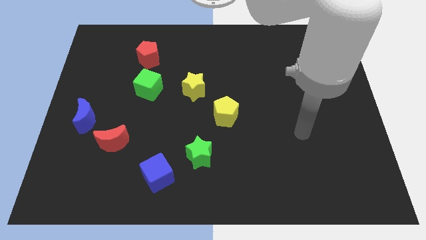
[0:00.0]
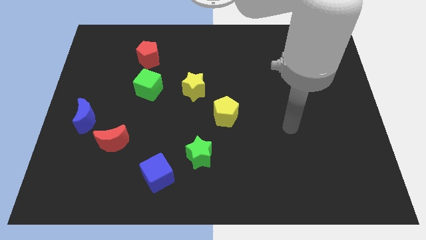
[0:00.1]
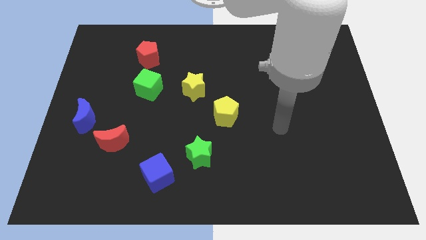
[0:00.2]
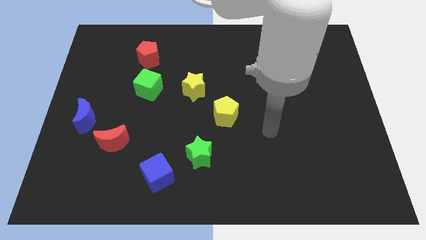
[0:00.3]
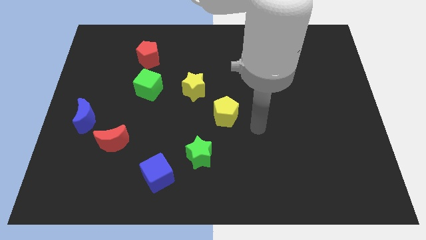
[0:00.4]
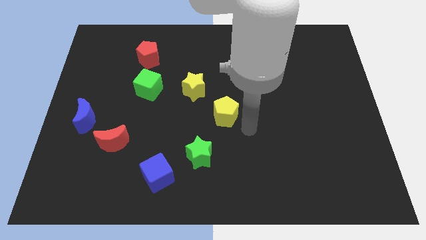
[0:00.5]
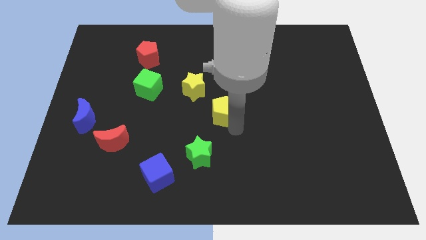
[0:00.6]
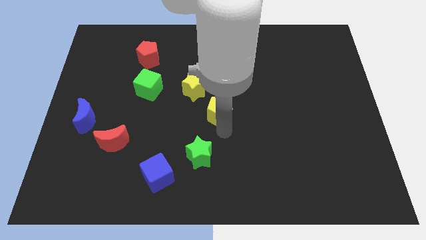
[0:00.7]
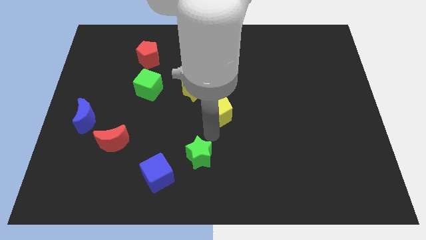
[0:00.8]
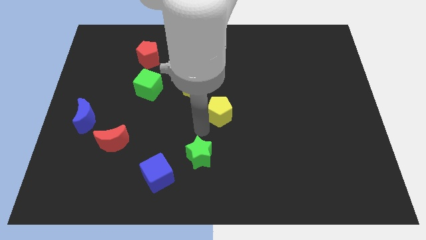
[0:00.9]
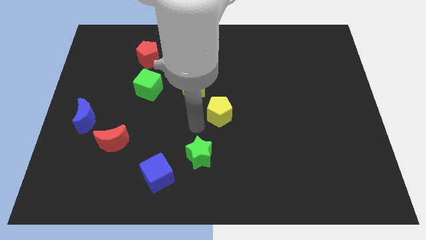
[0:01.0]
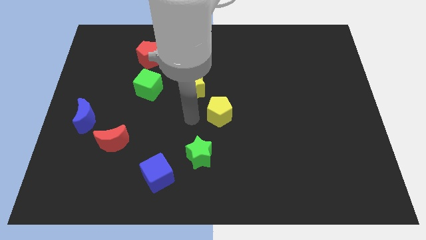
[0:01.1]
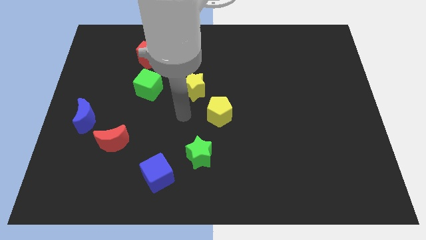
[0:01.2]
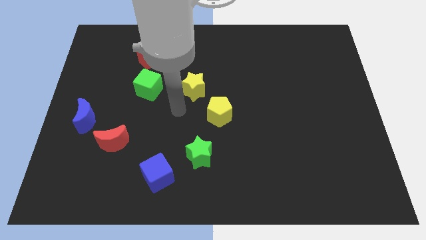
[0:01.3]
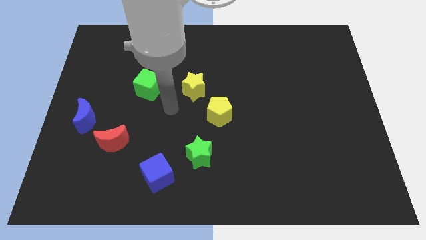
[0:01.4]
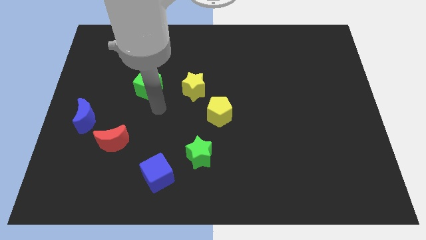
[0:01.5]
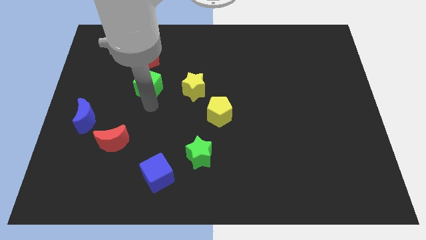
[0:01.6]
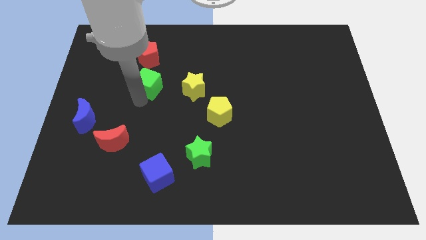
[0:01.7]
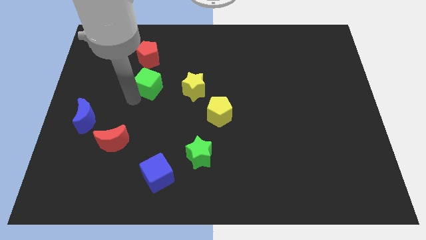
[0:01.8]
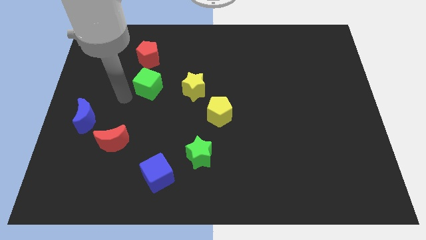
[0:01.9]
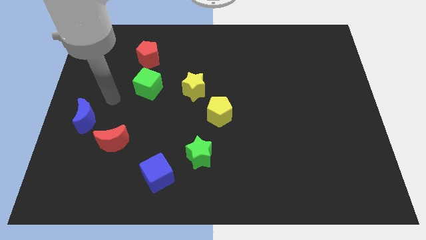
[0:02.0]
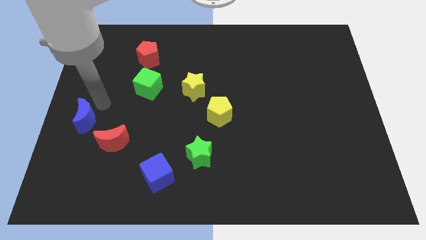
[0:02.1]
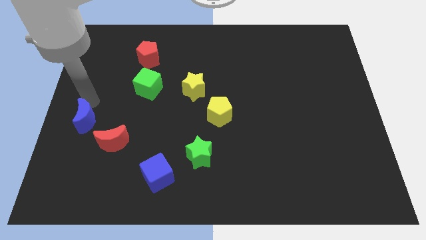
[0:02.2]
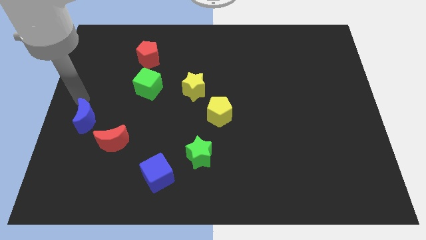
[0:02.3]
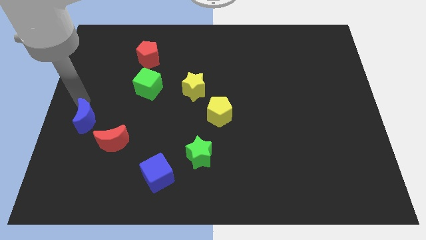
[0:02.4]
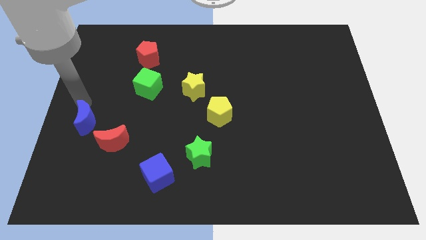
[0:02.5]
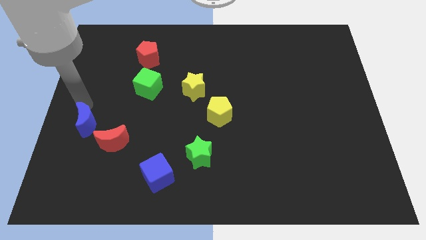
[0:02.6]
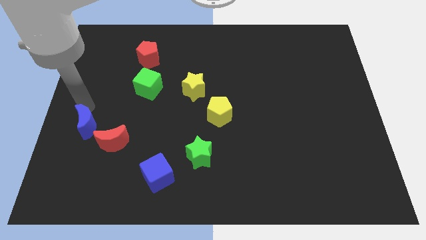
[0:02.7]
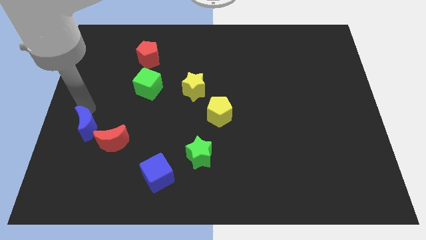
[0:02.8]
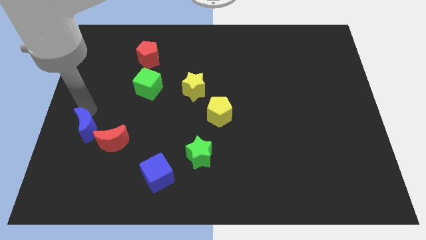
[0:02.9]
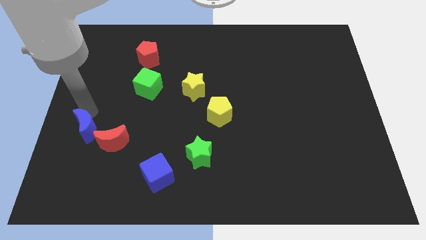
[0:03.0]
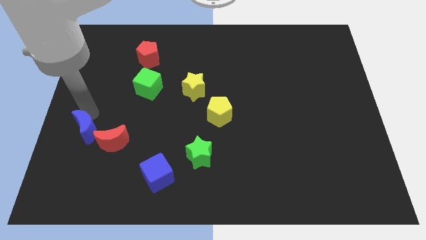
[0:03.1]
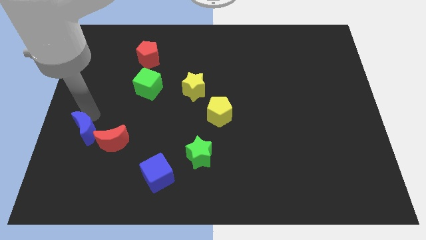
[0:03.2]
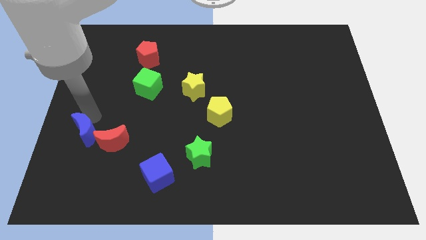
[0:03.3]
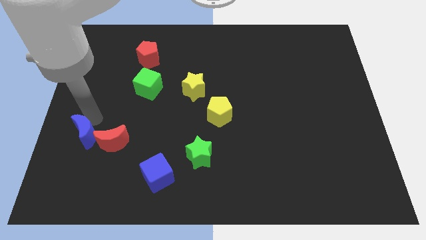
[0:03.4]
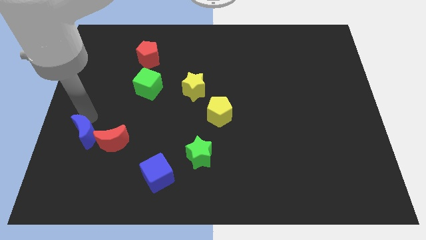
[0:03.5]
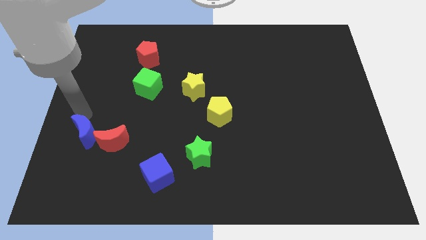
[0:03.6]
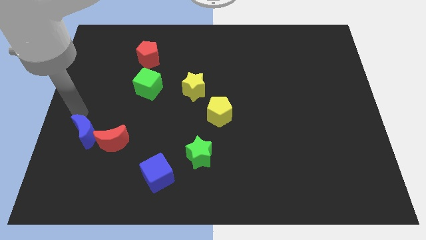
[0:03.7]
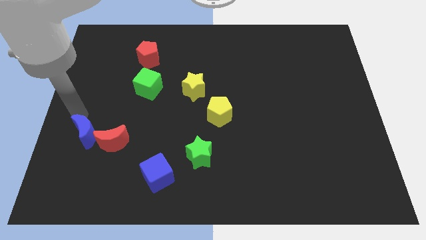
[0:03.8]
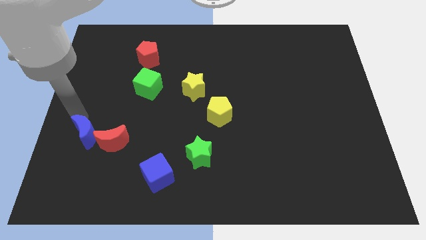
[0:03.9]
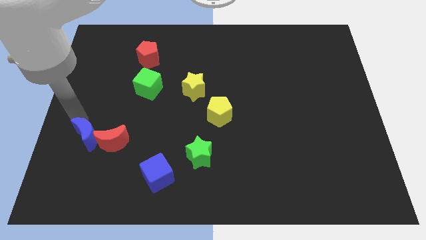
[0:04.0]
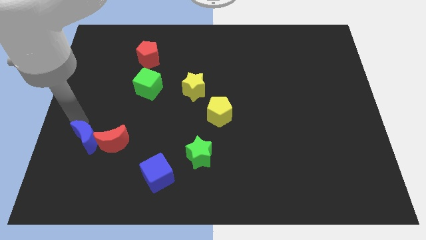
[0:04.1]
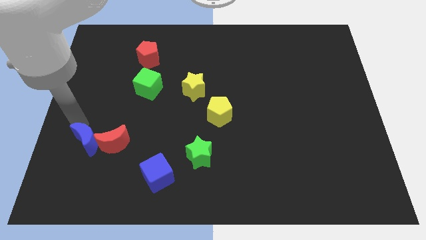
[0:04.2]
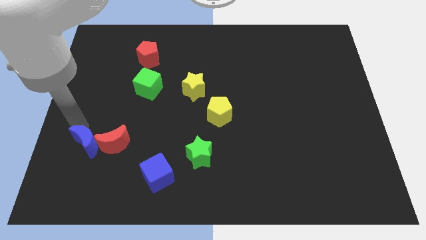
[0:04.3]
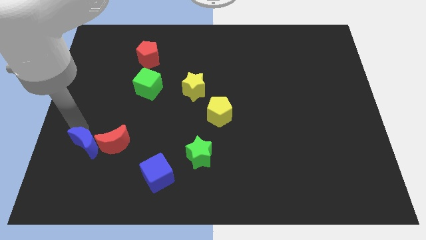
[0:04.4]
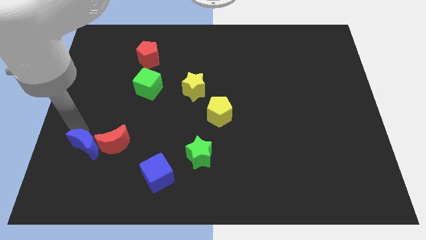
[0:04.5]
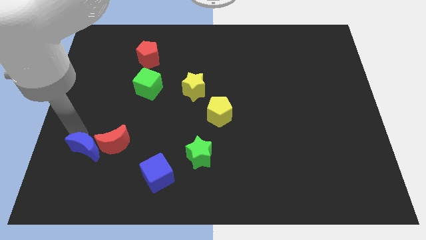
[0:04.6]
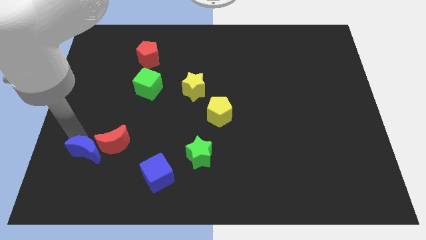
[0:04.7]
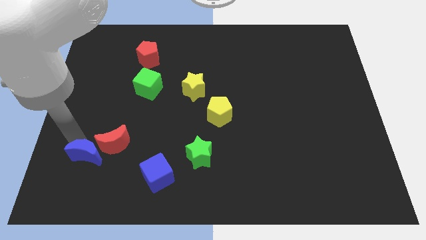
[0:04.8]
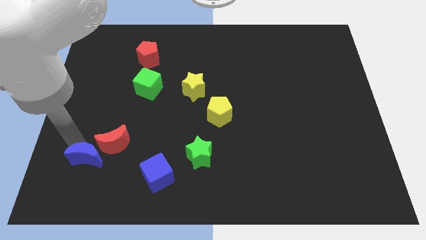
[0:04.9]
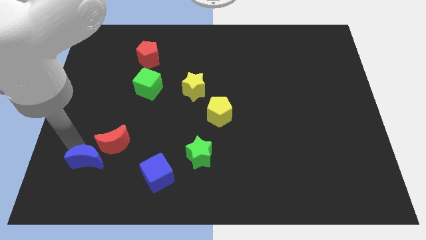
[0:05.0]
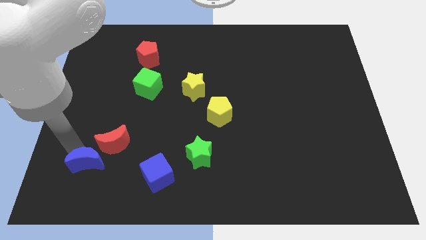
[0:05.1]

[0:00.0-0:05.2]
move the blue moon to the left side of the blue cube

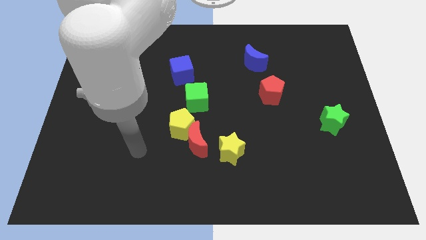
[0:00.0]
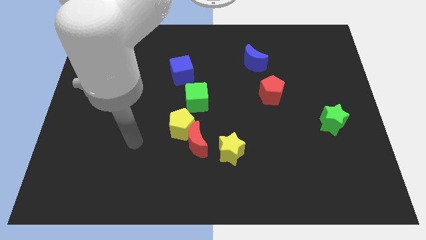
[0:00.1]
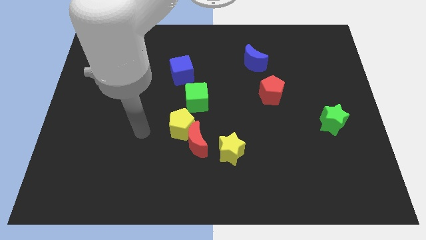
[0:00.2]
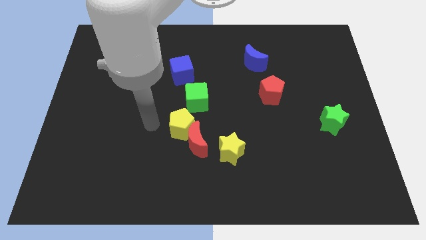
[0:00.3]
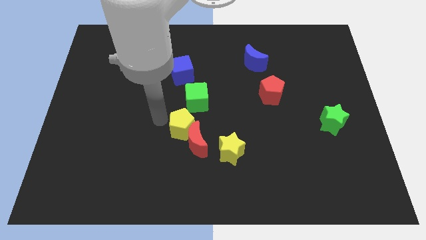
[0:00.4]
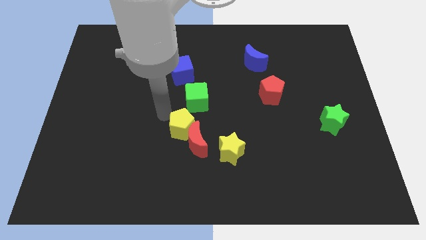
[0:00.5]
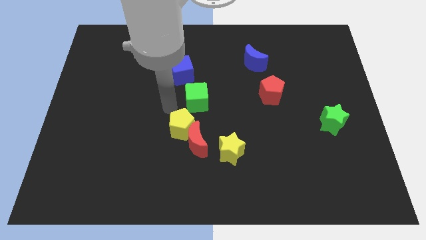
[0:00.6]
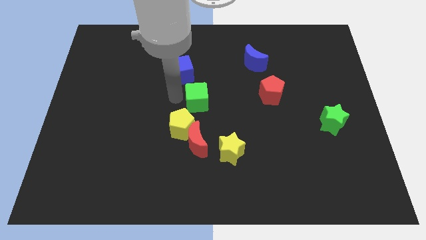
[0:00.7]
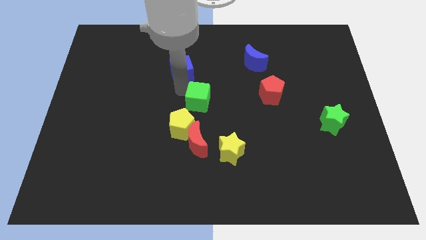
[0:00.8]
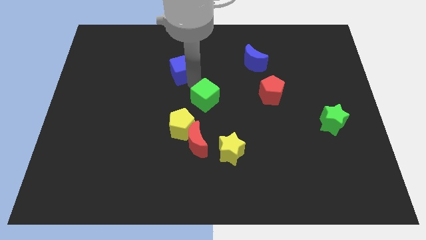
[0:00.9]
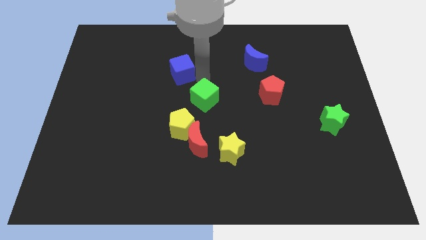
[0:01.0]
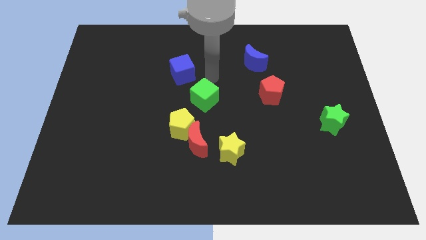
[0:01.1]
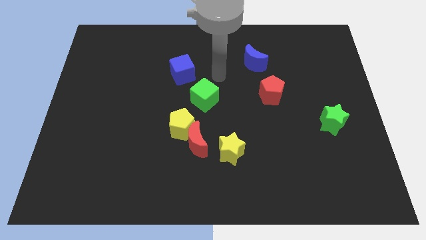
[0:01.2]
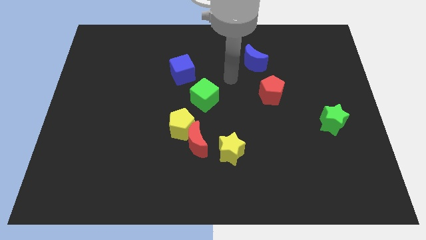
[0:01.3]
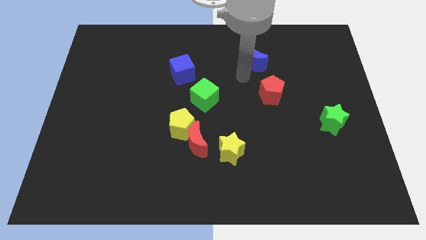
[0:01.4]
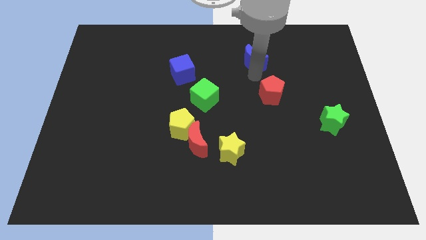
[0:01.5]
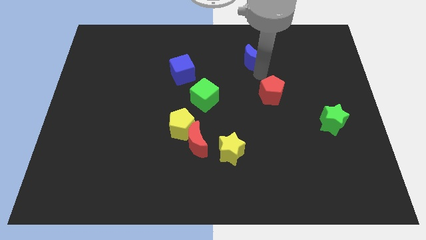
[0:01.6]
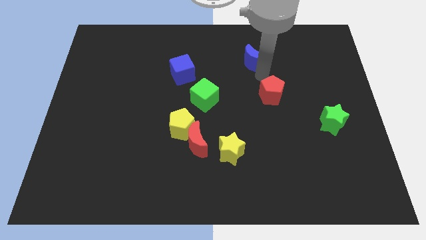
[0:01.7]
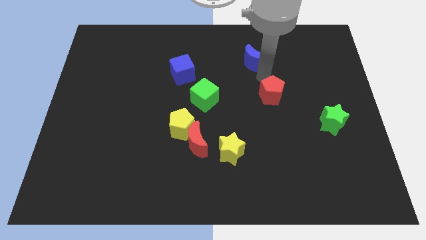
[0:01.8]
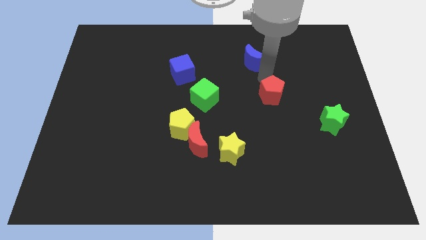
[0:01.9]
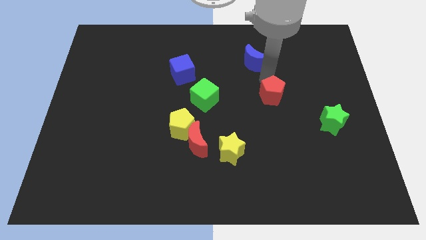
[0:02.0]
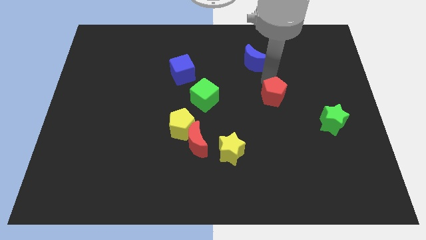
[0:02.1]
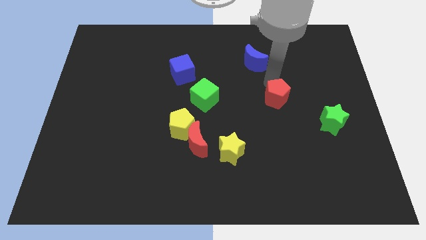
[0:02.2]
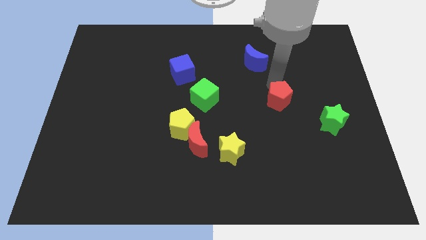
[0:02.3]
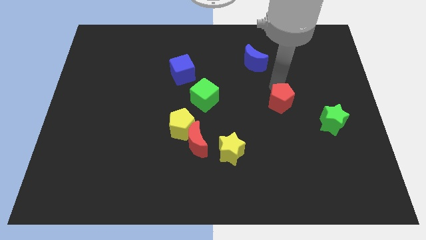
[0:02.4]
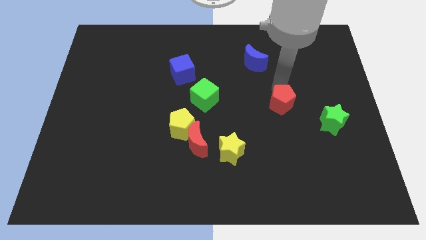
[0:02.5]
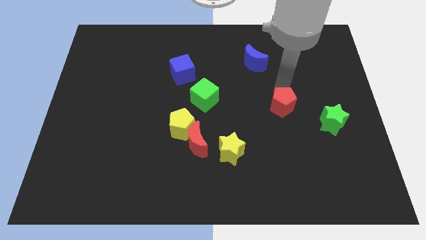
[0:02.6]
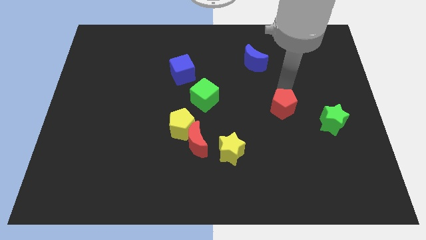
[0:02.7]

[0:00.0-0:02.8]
slide the red pentagon just left of the green star
